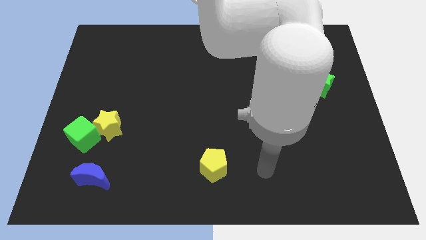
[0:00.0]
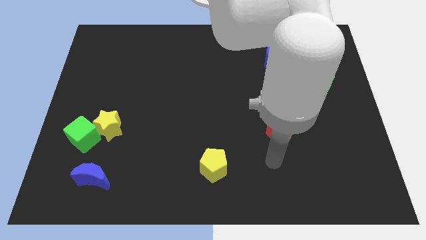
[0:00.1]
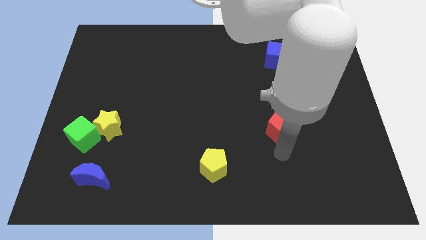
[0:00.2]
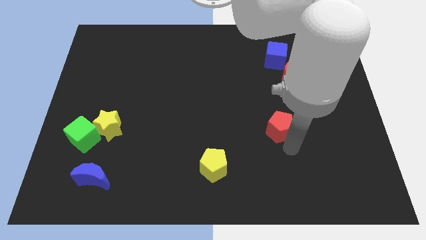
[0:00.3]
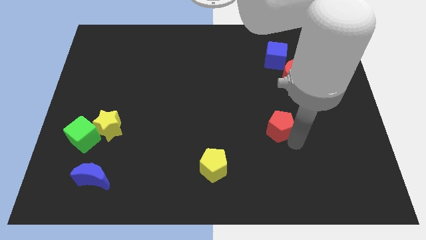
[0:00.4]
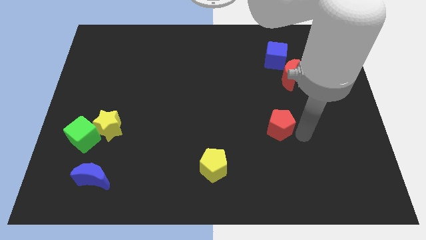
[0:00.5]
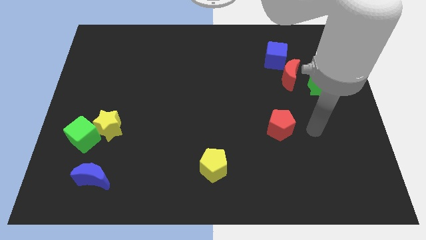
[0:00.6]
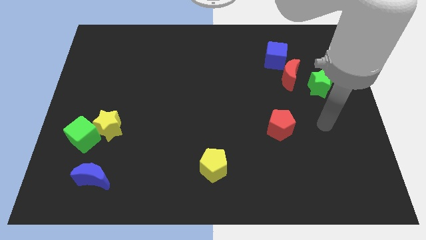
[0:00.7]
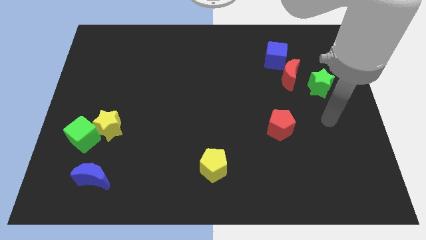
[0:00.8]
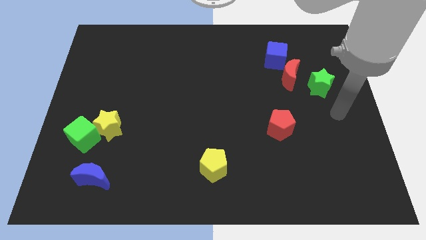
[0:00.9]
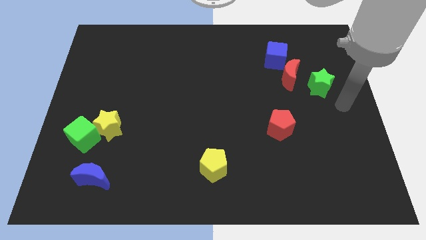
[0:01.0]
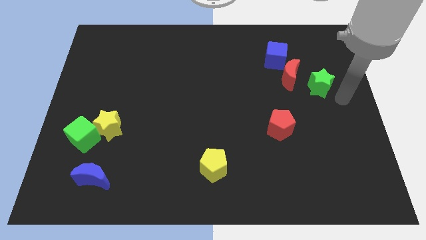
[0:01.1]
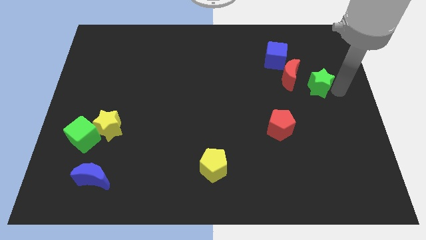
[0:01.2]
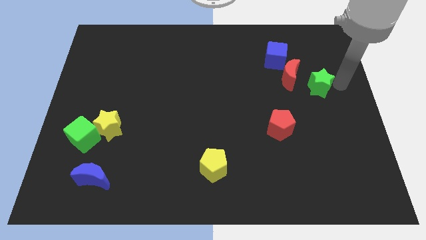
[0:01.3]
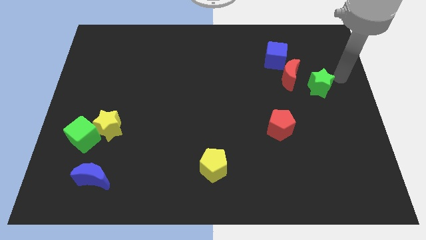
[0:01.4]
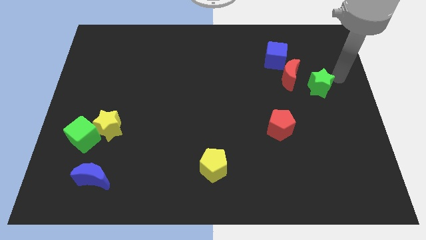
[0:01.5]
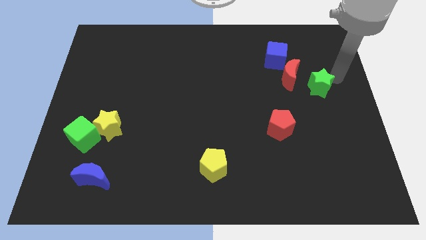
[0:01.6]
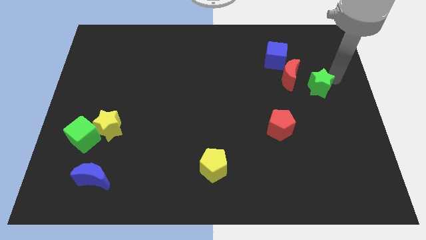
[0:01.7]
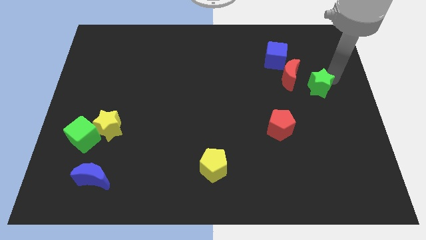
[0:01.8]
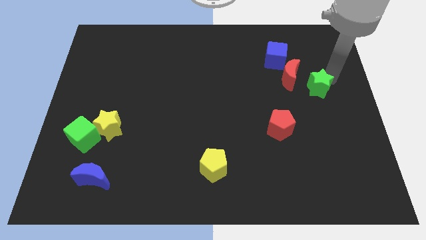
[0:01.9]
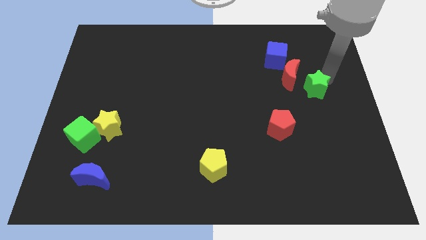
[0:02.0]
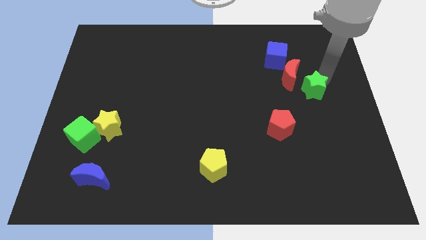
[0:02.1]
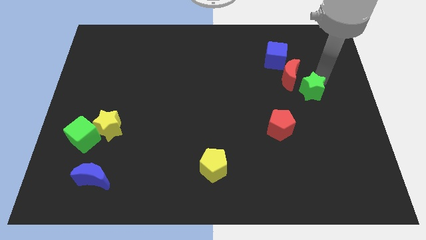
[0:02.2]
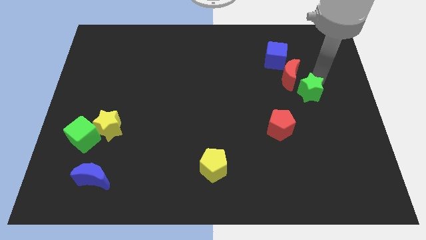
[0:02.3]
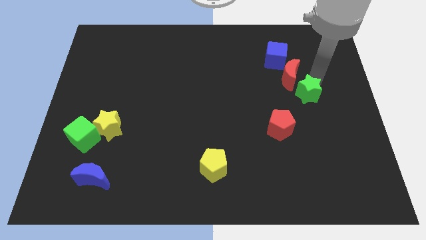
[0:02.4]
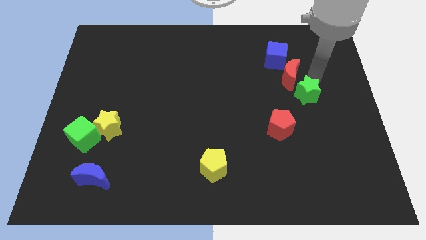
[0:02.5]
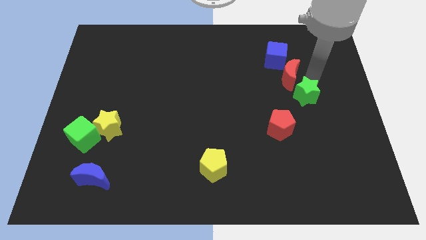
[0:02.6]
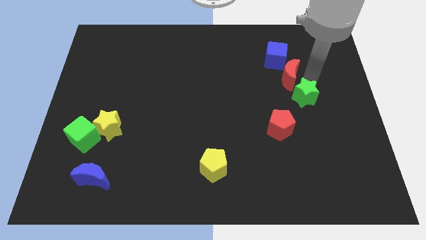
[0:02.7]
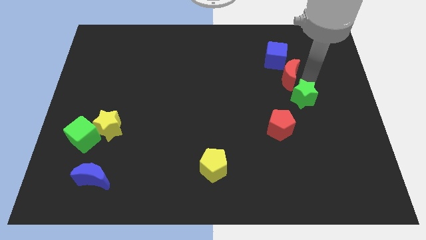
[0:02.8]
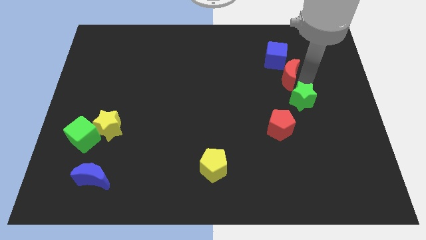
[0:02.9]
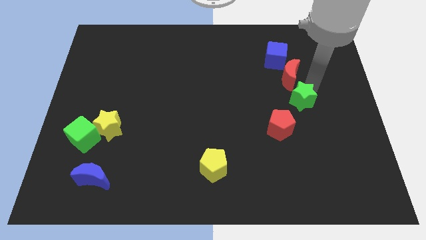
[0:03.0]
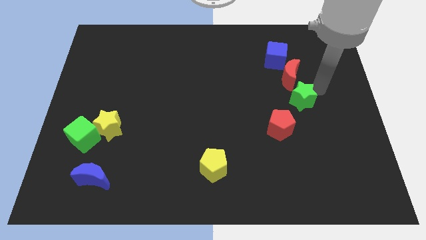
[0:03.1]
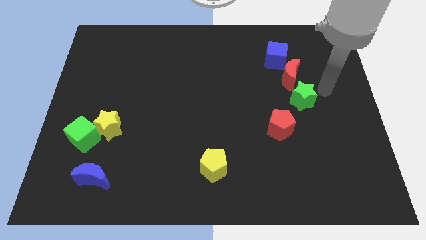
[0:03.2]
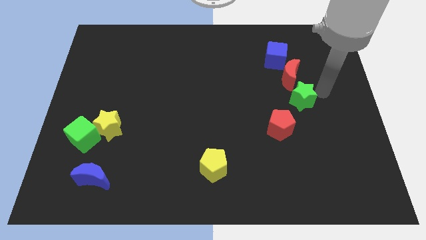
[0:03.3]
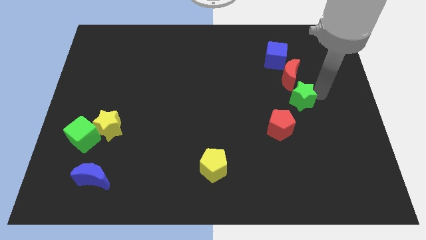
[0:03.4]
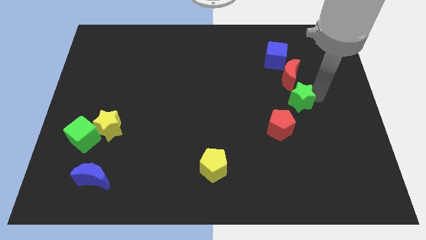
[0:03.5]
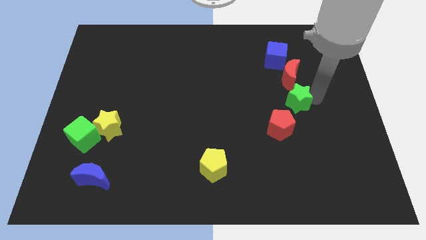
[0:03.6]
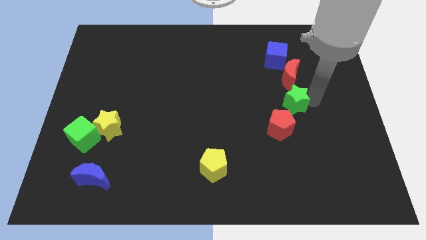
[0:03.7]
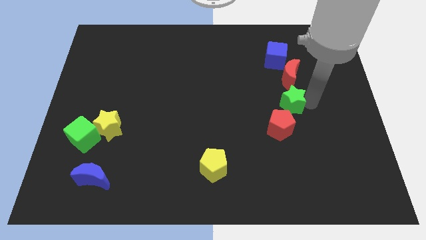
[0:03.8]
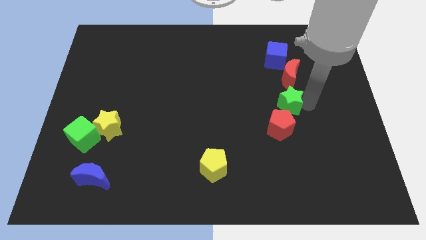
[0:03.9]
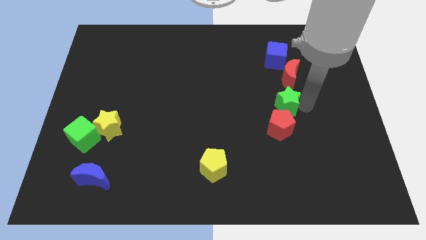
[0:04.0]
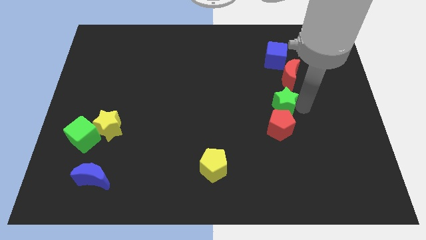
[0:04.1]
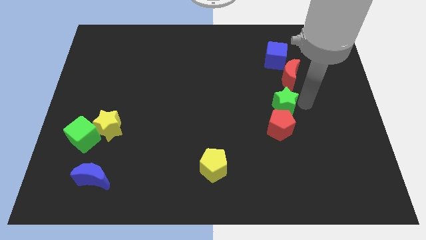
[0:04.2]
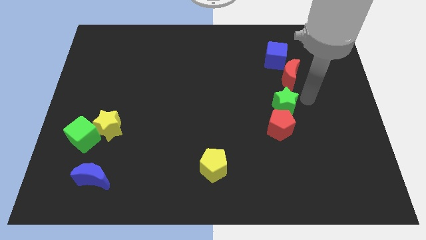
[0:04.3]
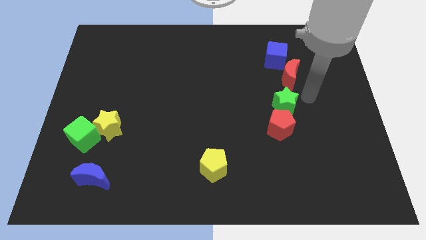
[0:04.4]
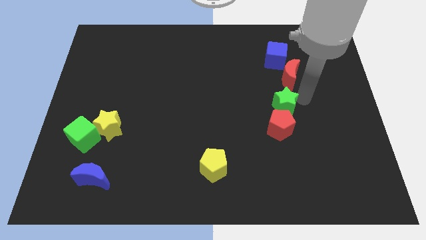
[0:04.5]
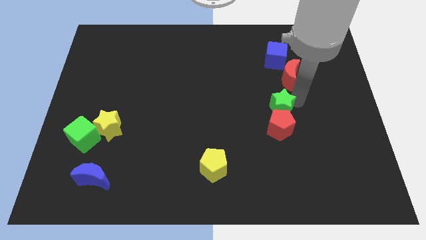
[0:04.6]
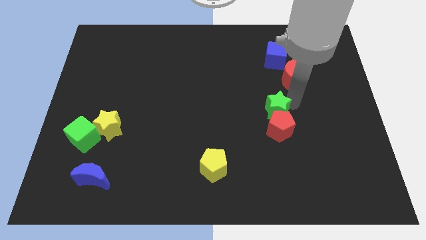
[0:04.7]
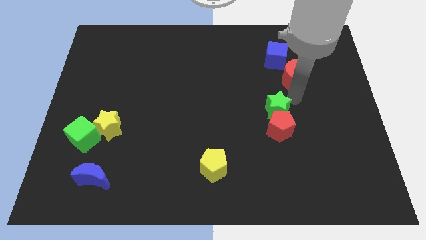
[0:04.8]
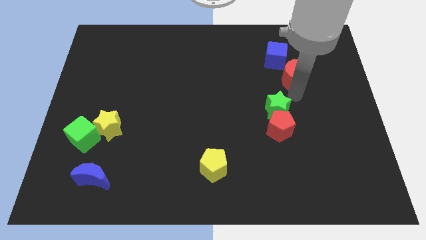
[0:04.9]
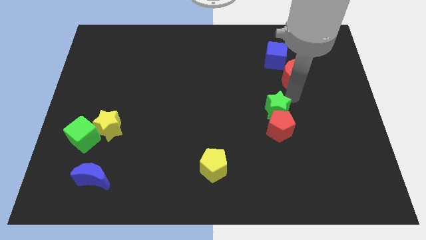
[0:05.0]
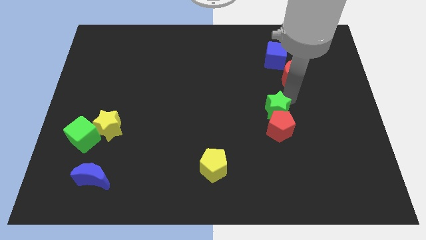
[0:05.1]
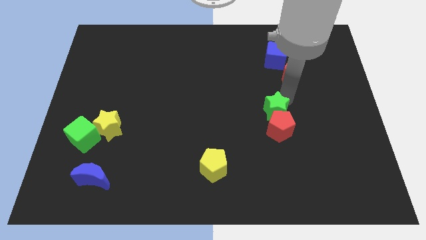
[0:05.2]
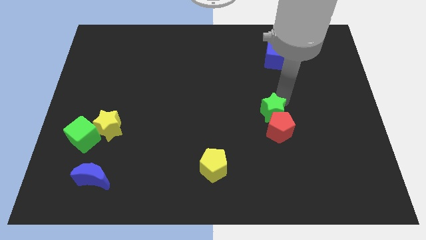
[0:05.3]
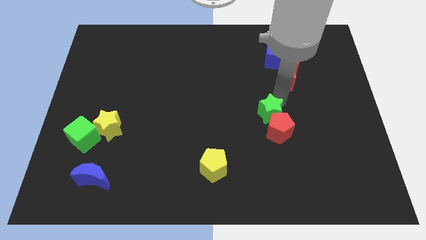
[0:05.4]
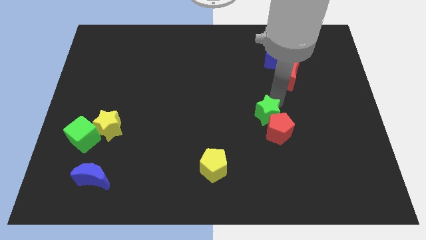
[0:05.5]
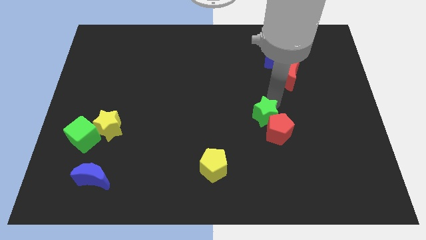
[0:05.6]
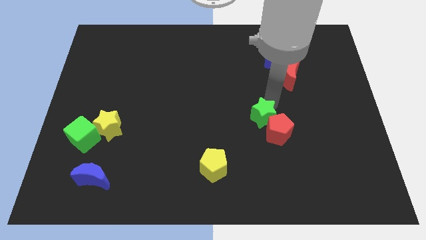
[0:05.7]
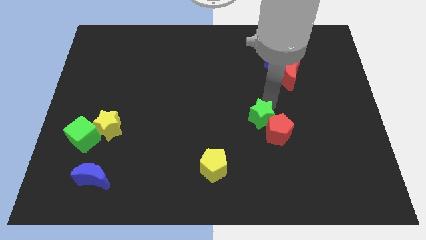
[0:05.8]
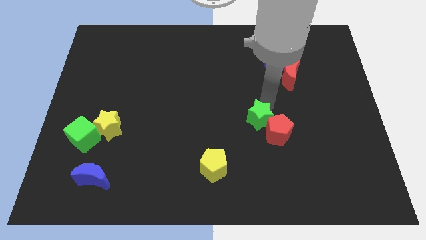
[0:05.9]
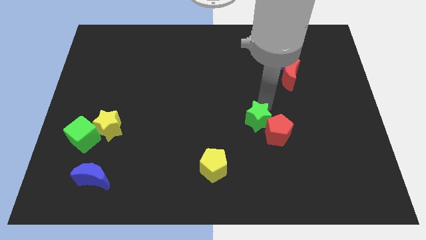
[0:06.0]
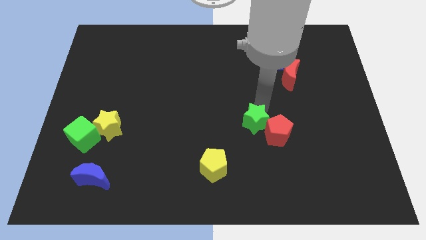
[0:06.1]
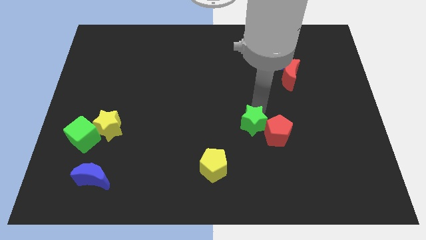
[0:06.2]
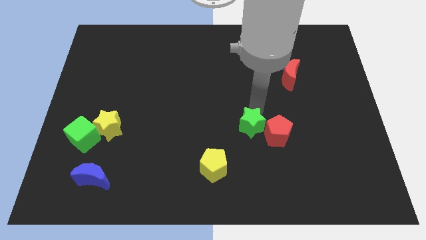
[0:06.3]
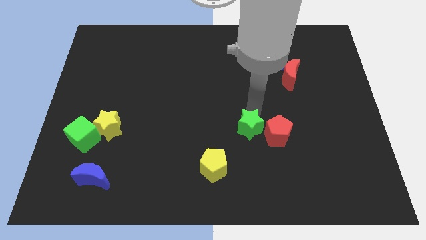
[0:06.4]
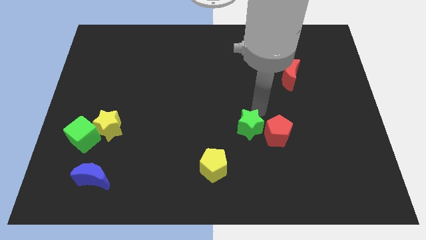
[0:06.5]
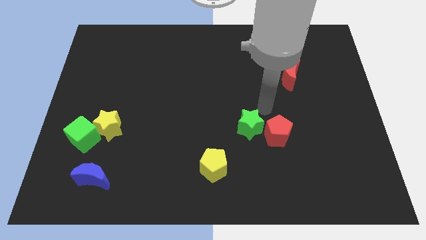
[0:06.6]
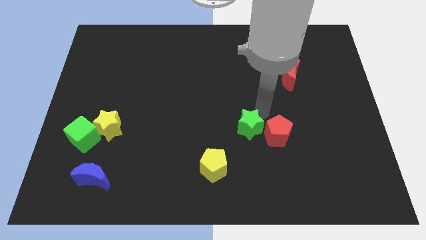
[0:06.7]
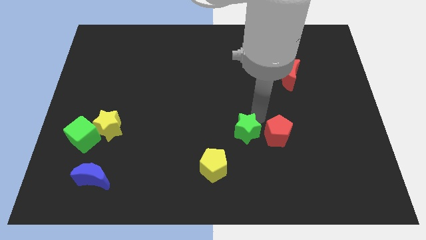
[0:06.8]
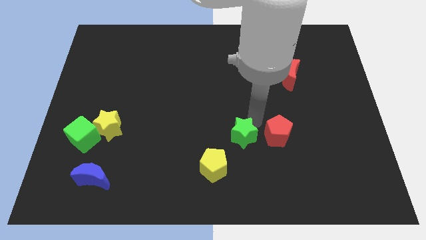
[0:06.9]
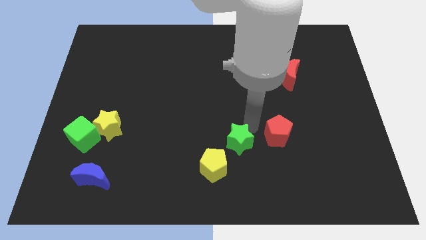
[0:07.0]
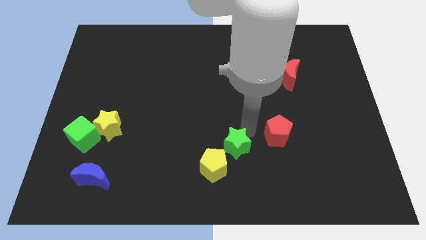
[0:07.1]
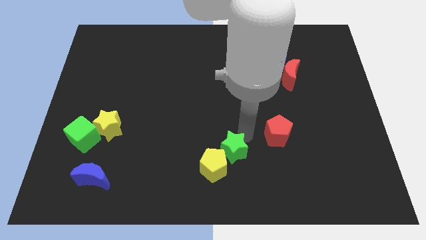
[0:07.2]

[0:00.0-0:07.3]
put the green star to the yellow pentagon

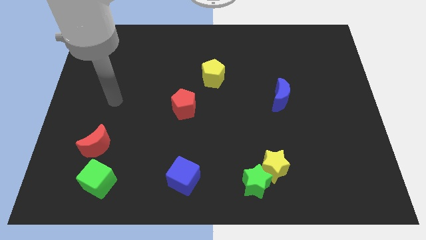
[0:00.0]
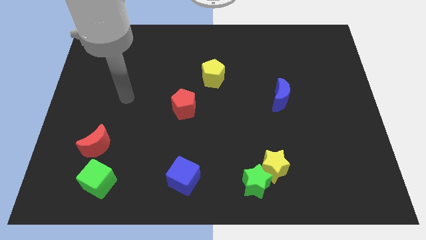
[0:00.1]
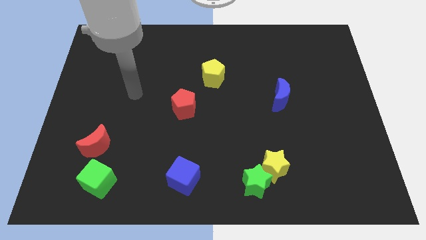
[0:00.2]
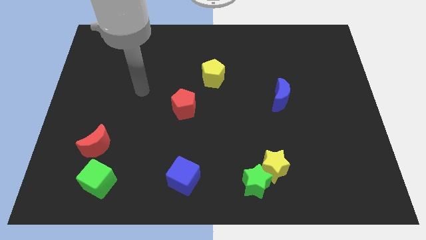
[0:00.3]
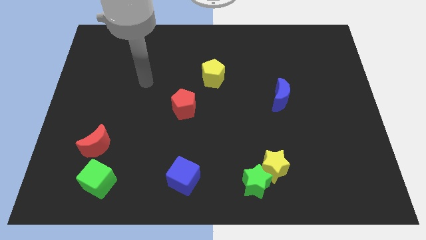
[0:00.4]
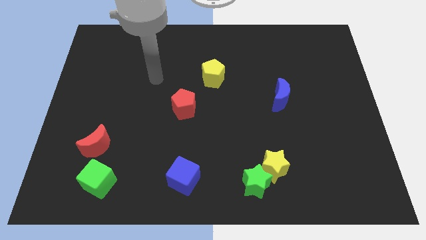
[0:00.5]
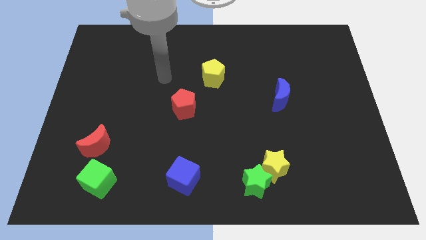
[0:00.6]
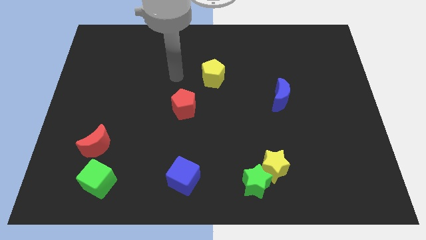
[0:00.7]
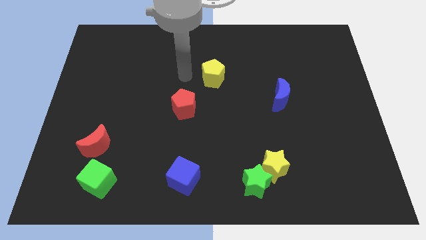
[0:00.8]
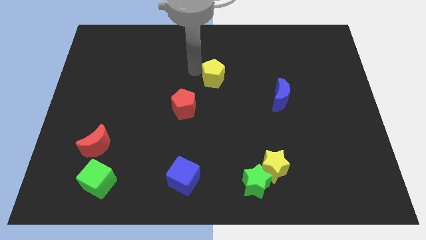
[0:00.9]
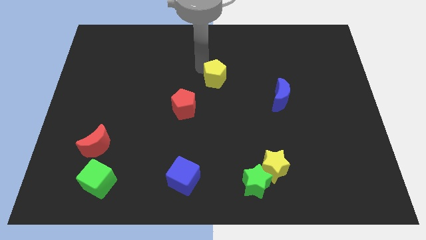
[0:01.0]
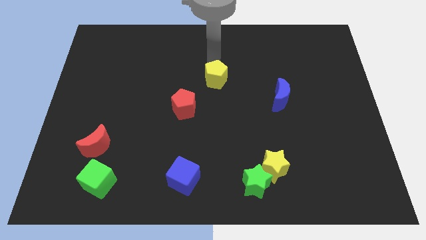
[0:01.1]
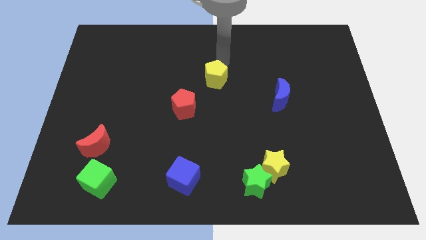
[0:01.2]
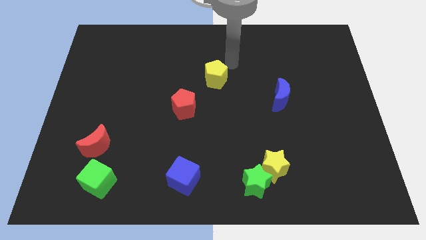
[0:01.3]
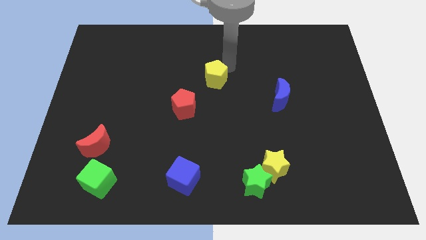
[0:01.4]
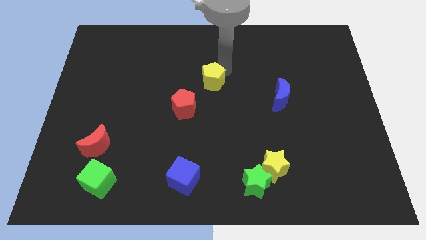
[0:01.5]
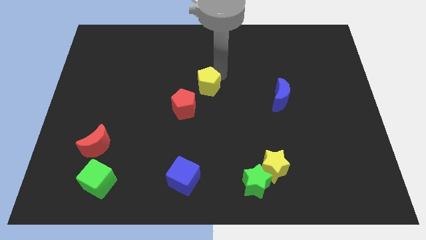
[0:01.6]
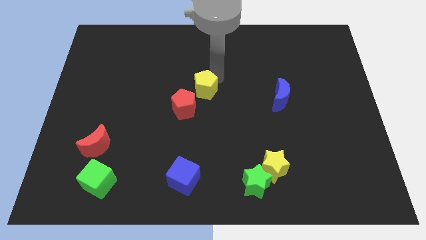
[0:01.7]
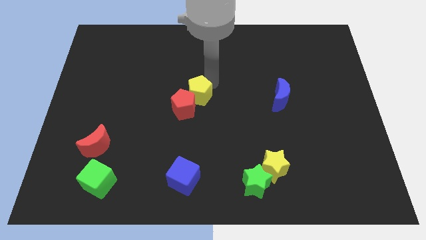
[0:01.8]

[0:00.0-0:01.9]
put the yellow pentagon next to the red pentagon
